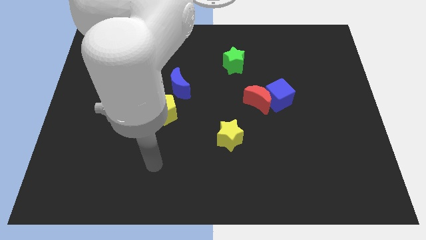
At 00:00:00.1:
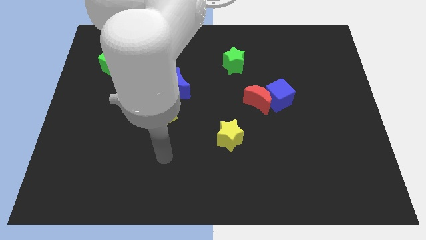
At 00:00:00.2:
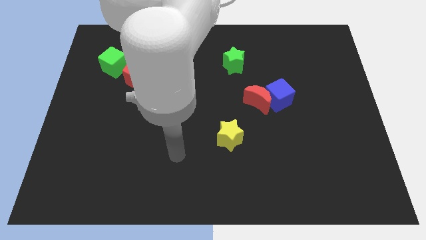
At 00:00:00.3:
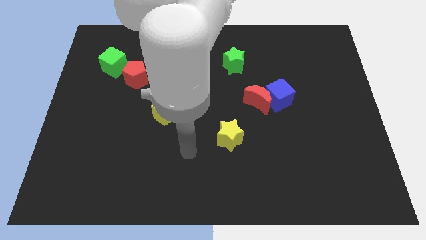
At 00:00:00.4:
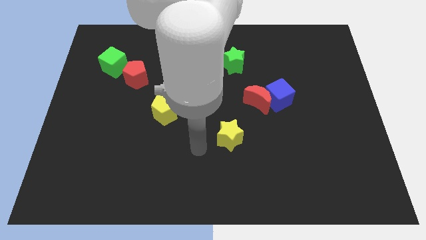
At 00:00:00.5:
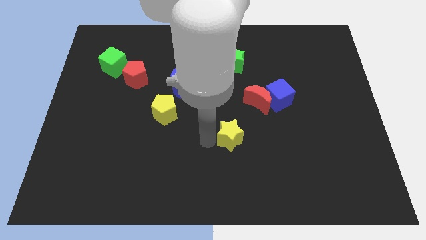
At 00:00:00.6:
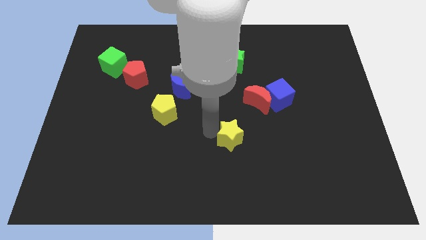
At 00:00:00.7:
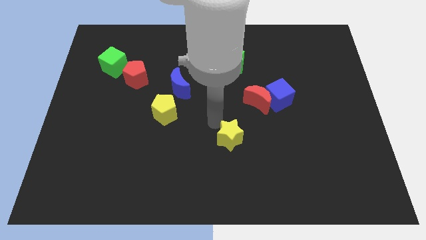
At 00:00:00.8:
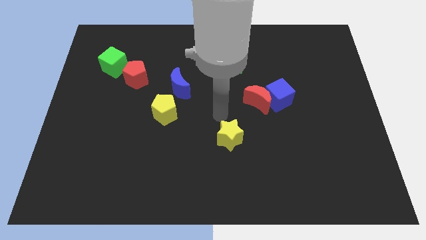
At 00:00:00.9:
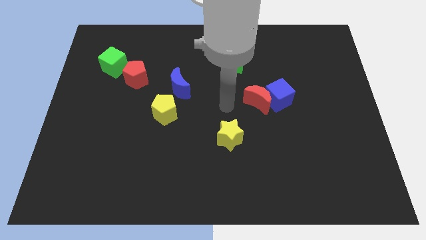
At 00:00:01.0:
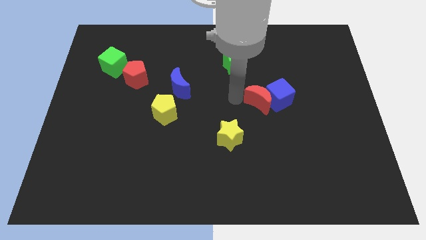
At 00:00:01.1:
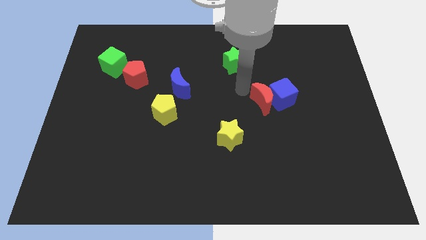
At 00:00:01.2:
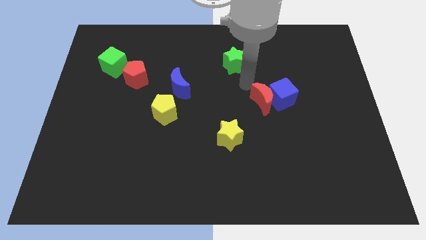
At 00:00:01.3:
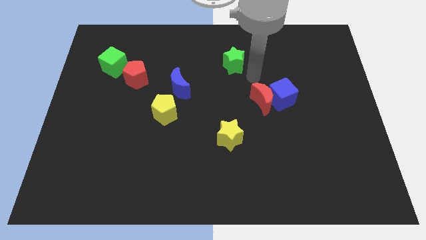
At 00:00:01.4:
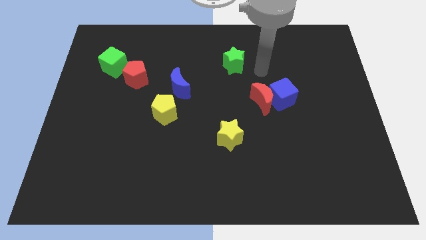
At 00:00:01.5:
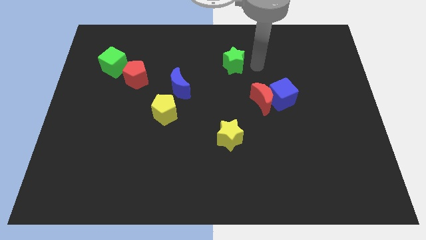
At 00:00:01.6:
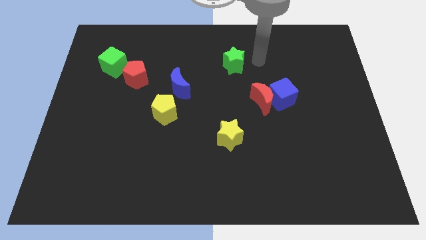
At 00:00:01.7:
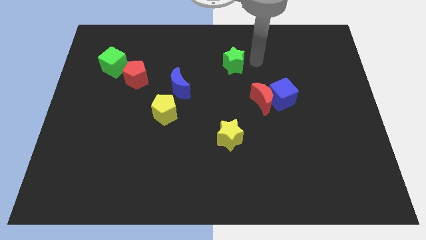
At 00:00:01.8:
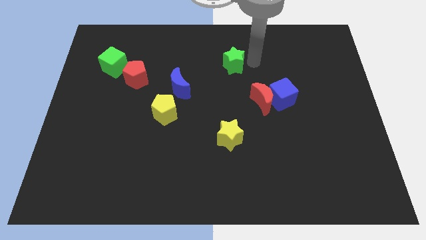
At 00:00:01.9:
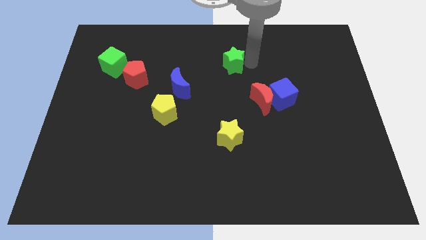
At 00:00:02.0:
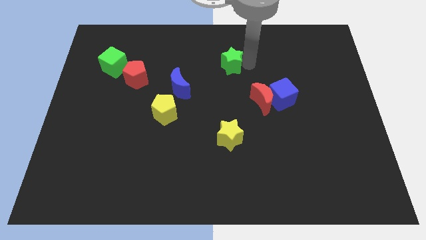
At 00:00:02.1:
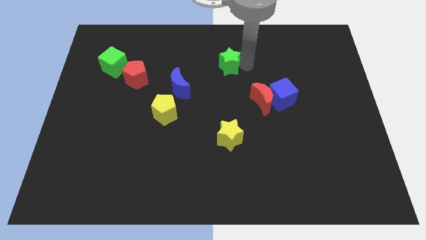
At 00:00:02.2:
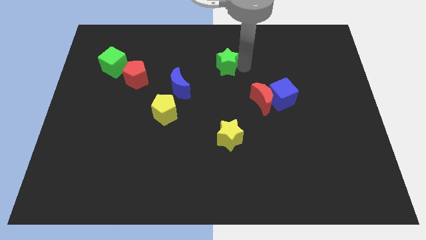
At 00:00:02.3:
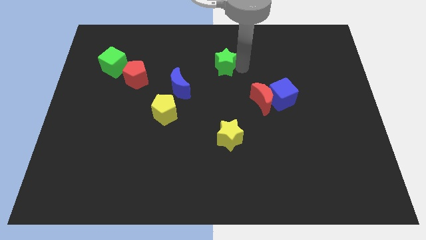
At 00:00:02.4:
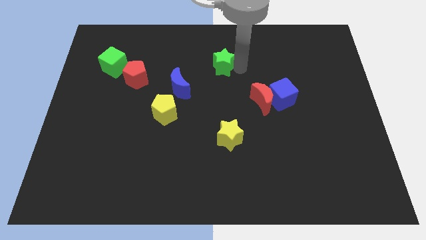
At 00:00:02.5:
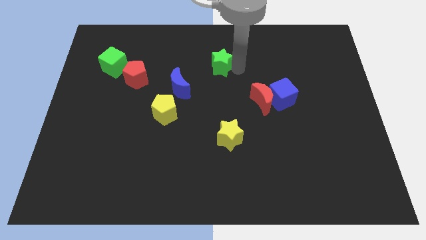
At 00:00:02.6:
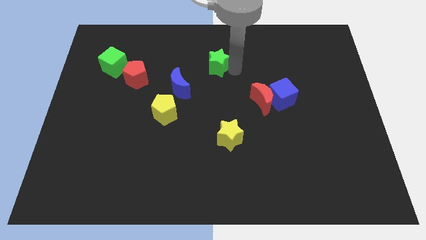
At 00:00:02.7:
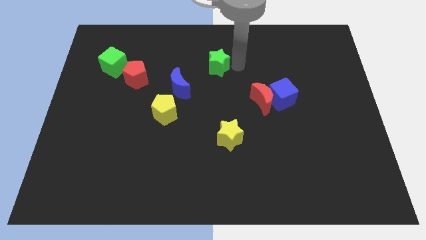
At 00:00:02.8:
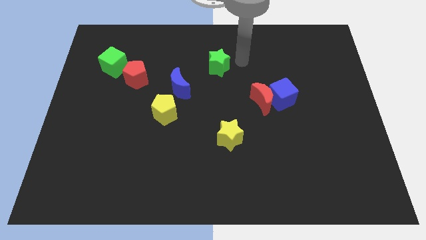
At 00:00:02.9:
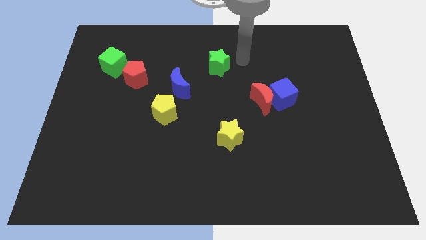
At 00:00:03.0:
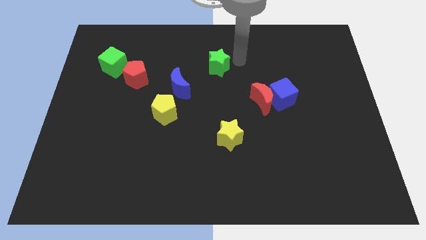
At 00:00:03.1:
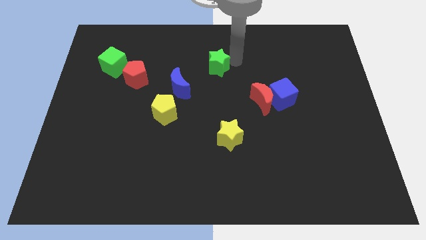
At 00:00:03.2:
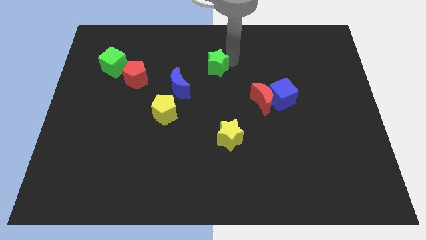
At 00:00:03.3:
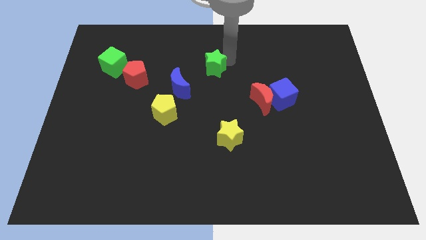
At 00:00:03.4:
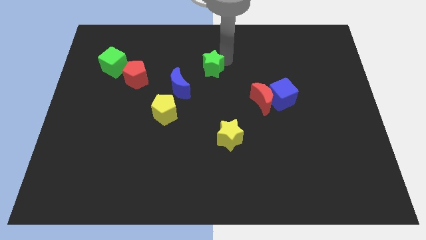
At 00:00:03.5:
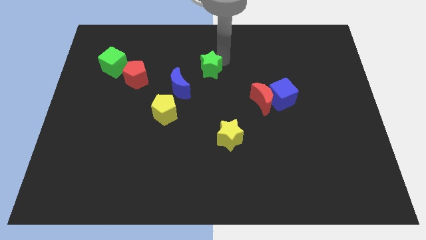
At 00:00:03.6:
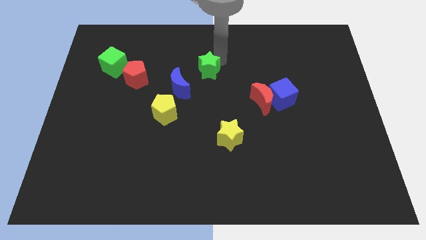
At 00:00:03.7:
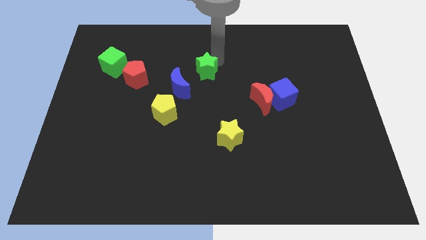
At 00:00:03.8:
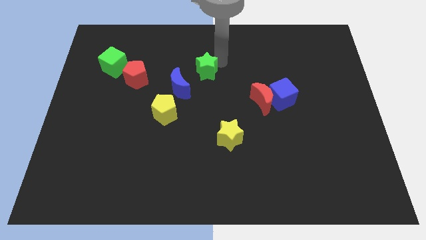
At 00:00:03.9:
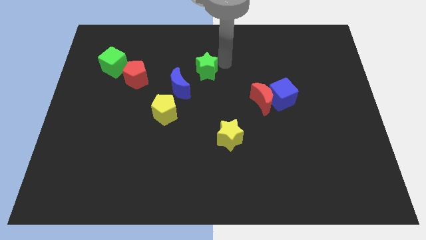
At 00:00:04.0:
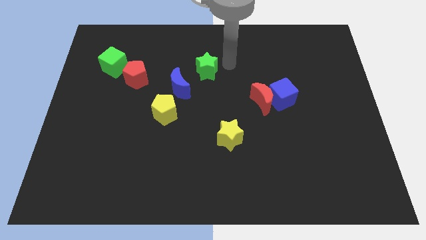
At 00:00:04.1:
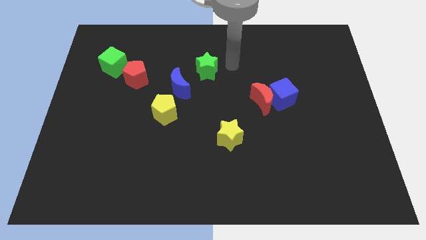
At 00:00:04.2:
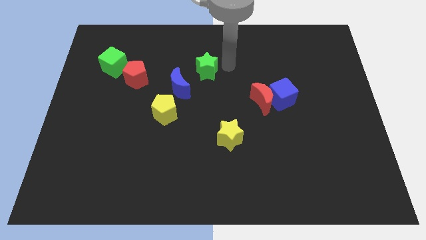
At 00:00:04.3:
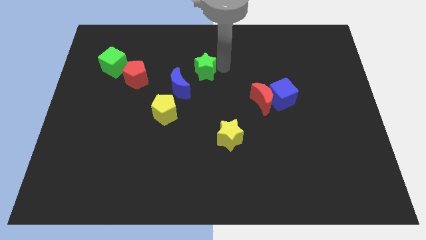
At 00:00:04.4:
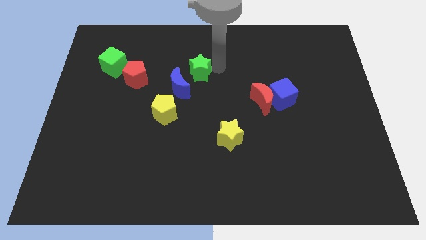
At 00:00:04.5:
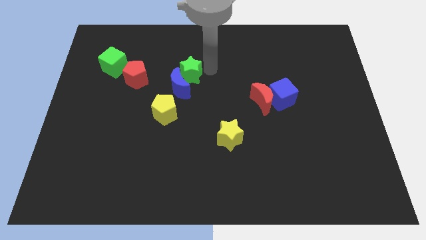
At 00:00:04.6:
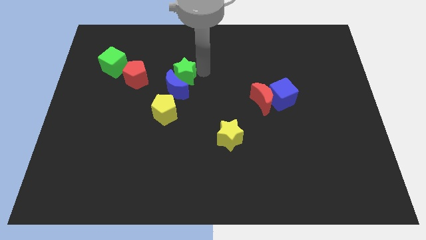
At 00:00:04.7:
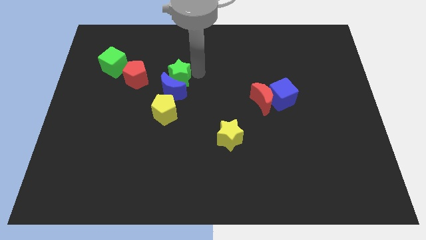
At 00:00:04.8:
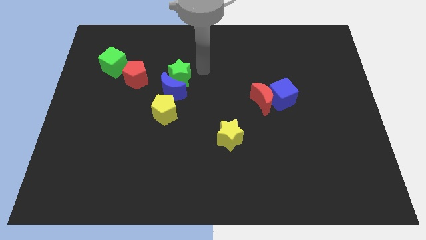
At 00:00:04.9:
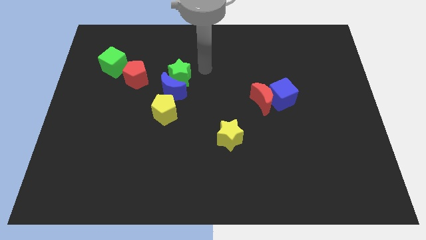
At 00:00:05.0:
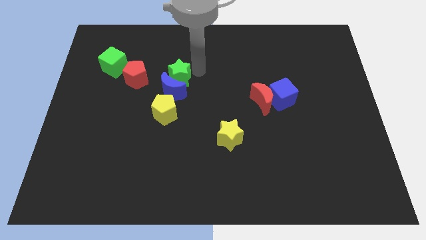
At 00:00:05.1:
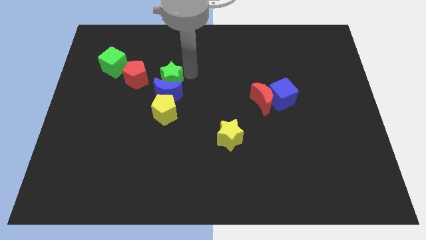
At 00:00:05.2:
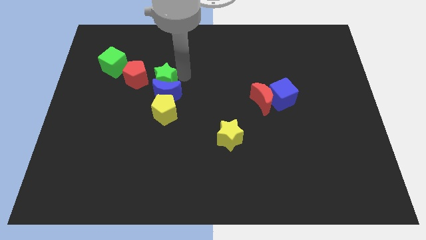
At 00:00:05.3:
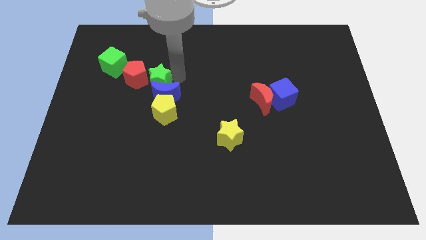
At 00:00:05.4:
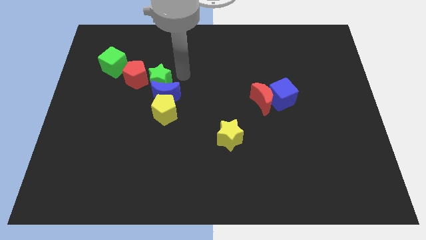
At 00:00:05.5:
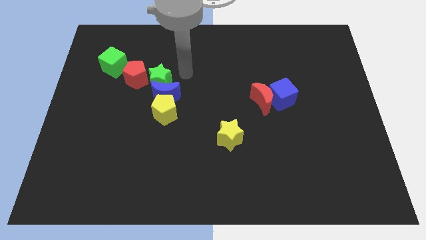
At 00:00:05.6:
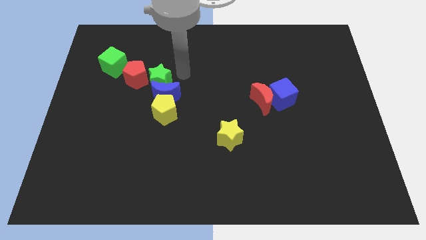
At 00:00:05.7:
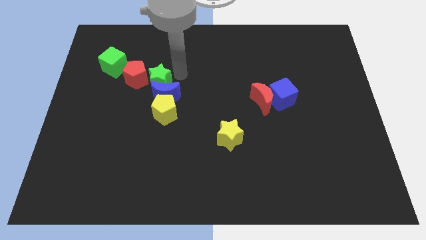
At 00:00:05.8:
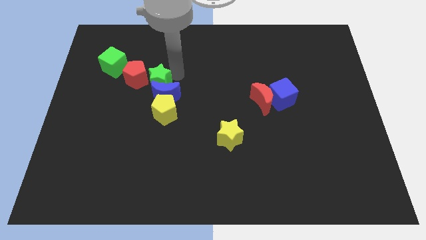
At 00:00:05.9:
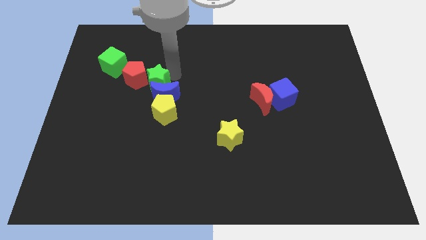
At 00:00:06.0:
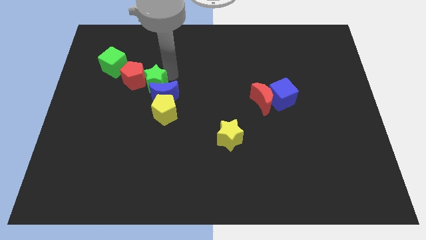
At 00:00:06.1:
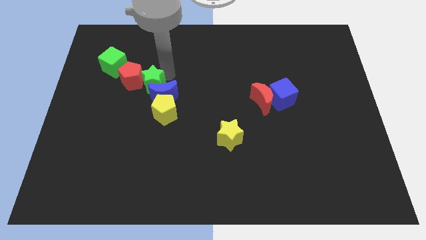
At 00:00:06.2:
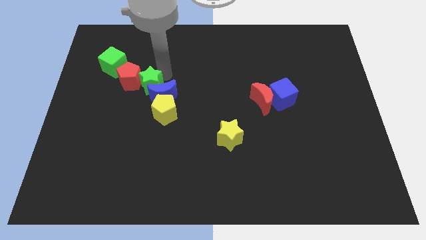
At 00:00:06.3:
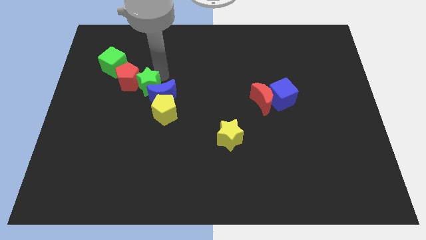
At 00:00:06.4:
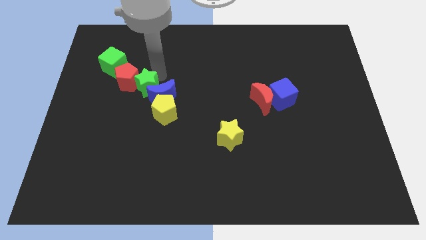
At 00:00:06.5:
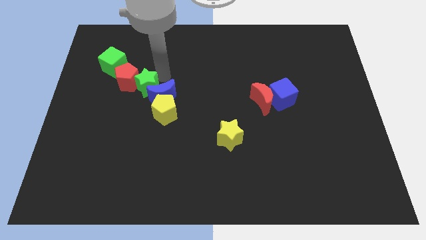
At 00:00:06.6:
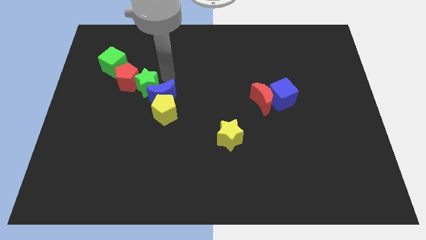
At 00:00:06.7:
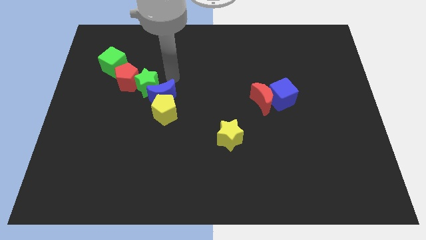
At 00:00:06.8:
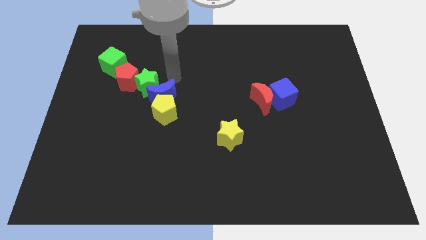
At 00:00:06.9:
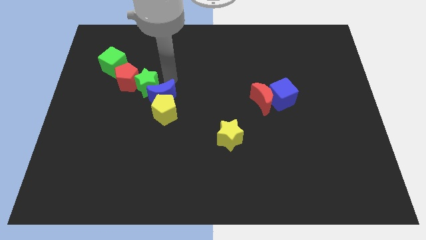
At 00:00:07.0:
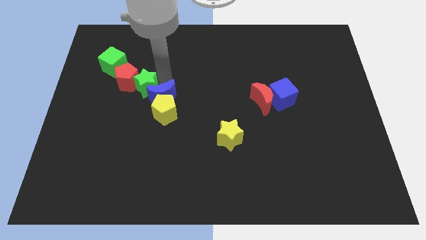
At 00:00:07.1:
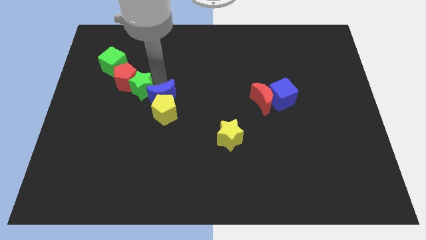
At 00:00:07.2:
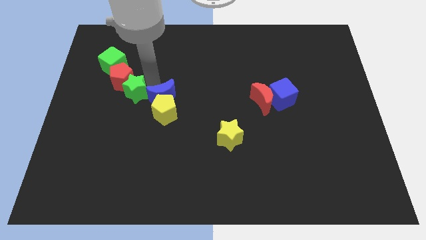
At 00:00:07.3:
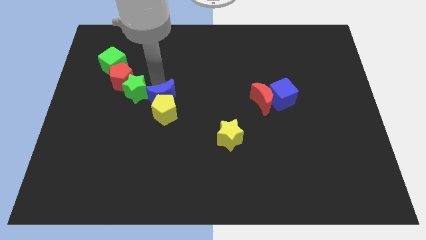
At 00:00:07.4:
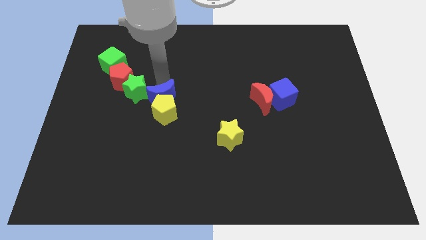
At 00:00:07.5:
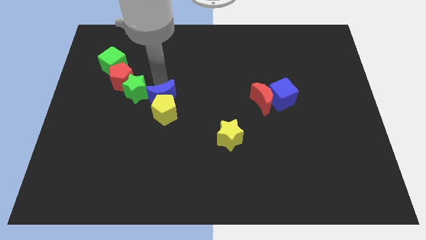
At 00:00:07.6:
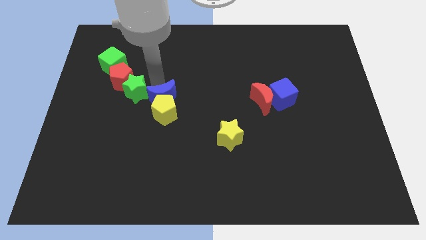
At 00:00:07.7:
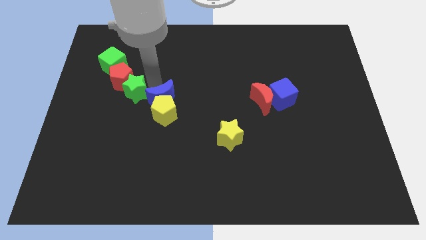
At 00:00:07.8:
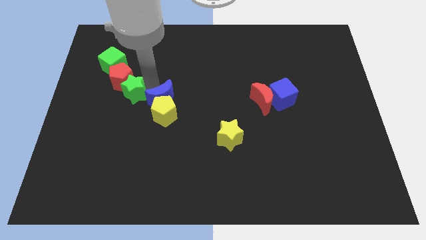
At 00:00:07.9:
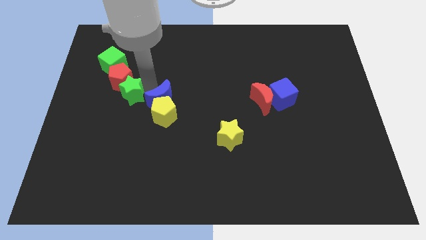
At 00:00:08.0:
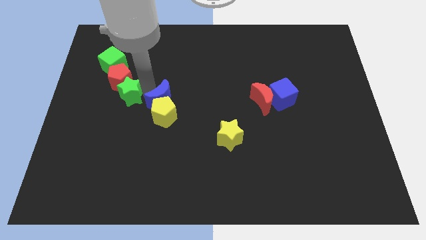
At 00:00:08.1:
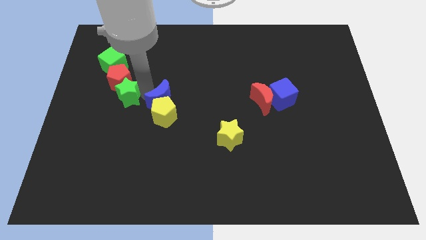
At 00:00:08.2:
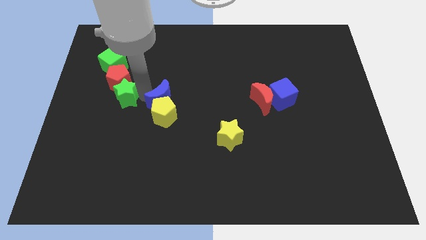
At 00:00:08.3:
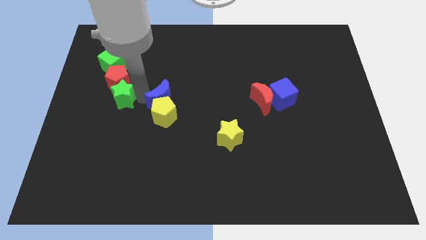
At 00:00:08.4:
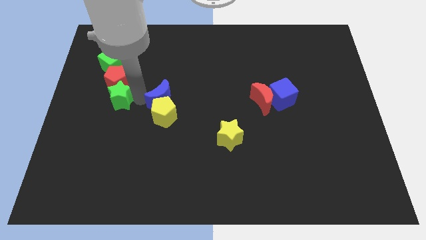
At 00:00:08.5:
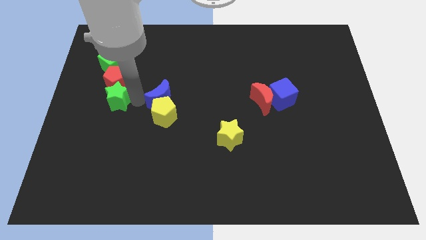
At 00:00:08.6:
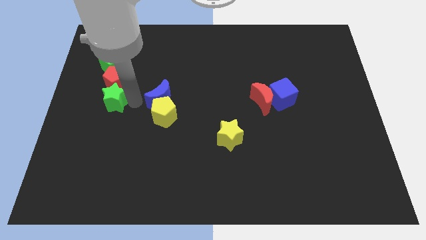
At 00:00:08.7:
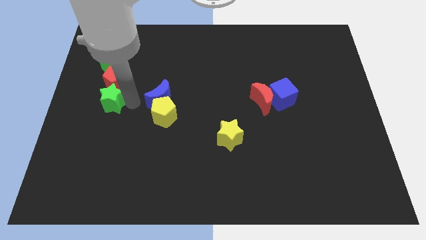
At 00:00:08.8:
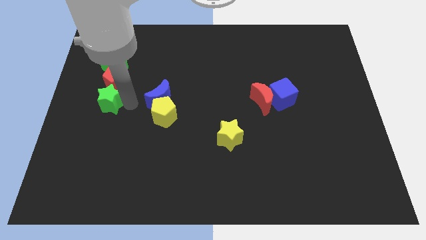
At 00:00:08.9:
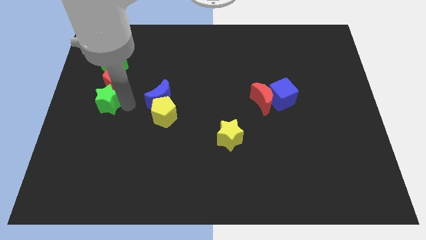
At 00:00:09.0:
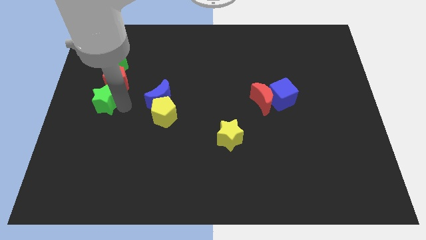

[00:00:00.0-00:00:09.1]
push the green star to the left side of the board
